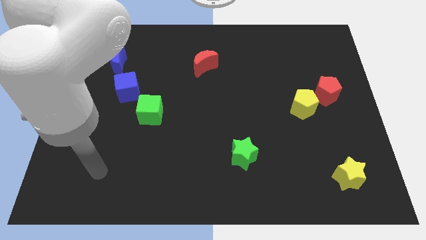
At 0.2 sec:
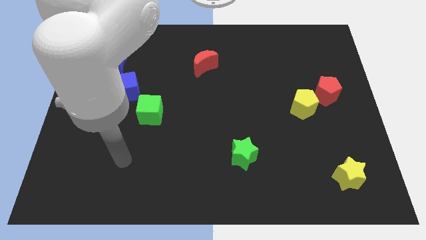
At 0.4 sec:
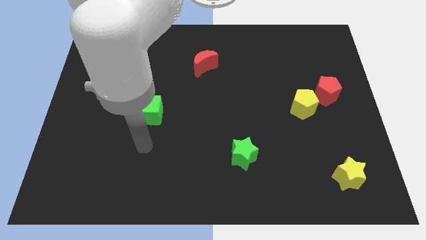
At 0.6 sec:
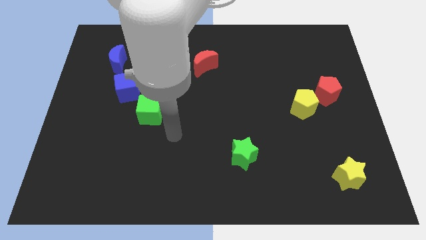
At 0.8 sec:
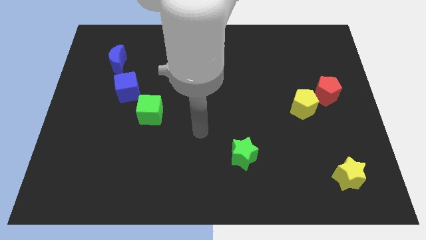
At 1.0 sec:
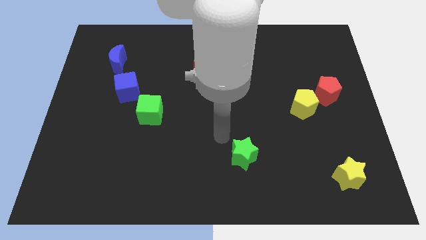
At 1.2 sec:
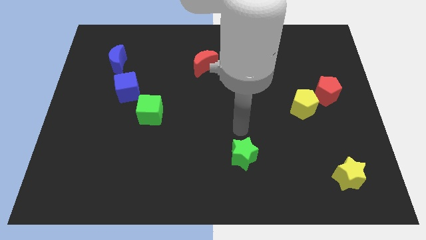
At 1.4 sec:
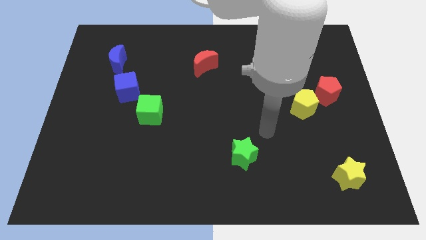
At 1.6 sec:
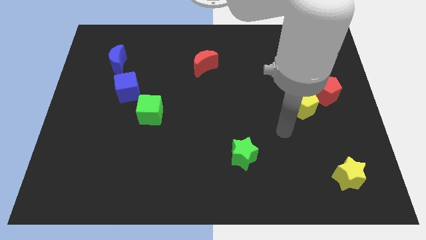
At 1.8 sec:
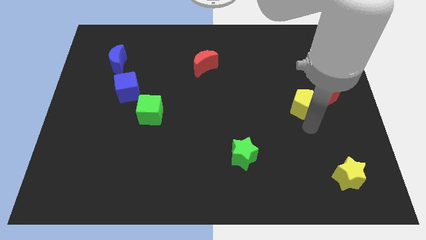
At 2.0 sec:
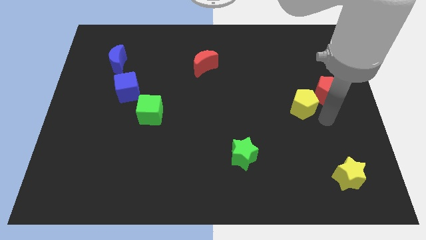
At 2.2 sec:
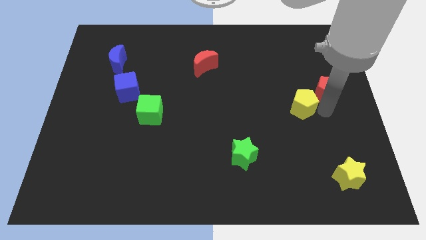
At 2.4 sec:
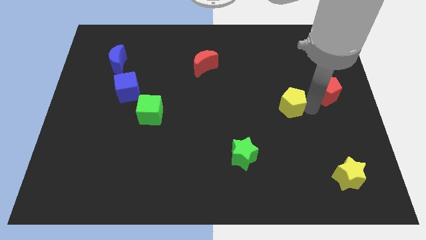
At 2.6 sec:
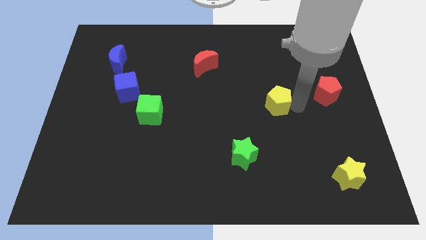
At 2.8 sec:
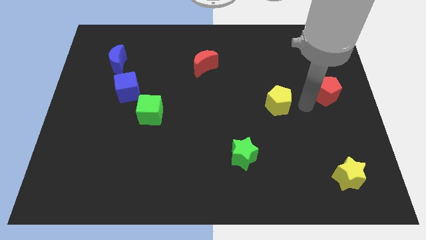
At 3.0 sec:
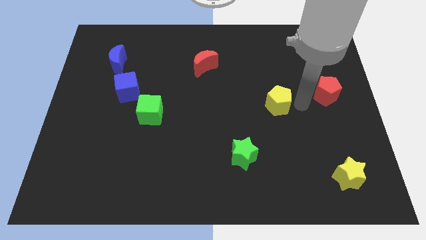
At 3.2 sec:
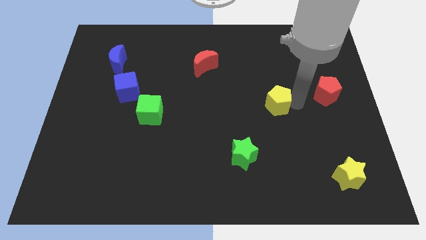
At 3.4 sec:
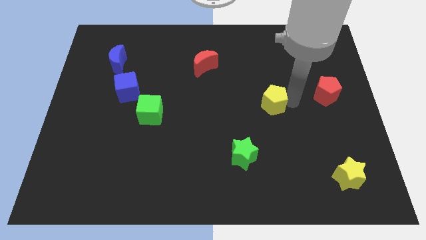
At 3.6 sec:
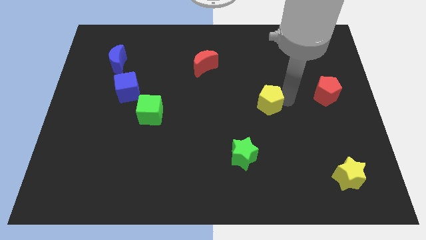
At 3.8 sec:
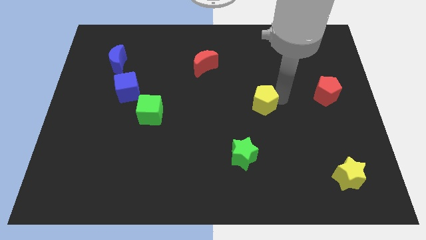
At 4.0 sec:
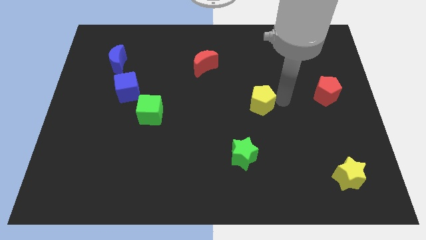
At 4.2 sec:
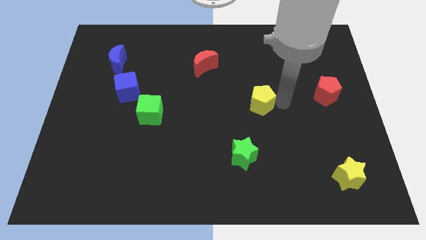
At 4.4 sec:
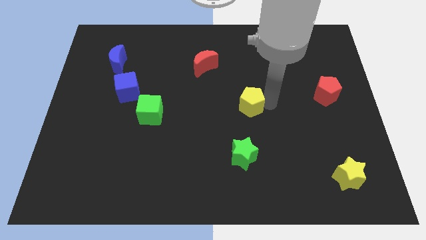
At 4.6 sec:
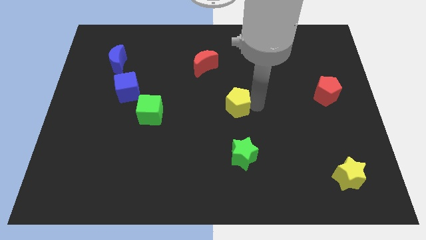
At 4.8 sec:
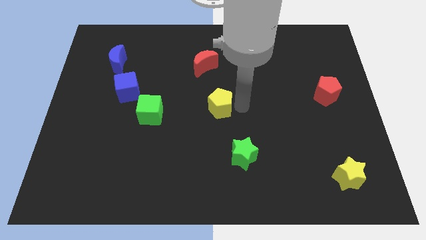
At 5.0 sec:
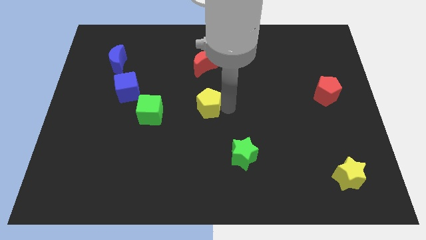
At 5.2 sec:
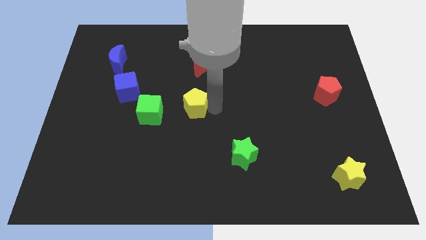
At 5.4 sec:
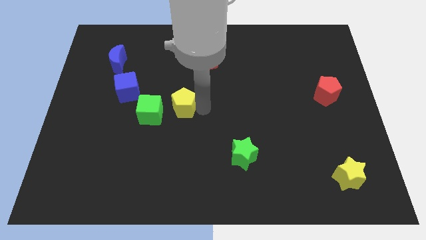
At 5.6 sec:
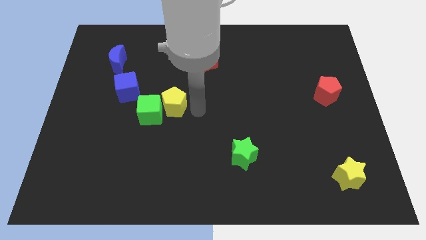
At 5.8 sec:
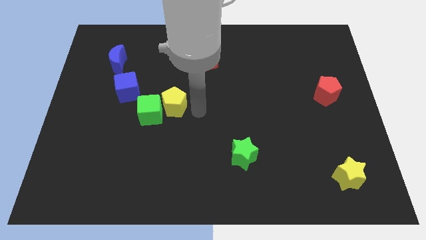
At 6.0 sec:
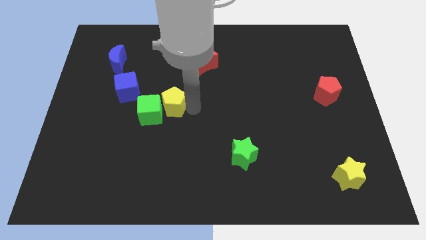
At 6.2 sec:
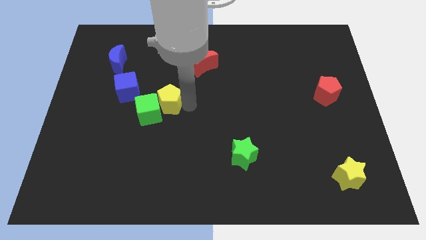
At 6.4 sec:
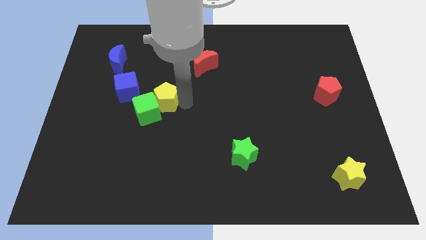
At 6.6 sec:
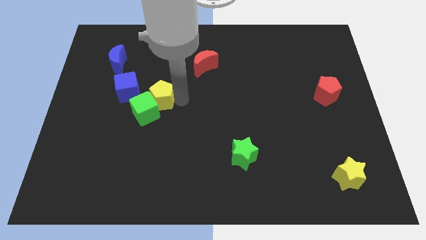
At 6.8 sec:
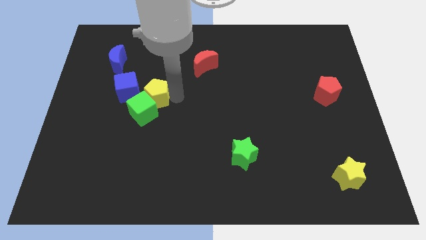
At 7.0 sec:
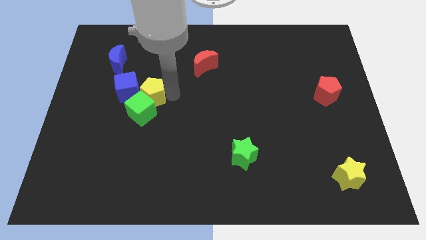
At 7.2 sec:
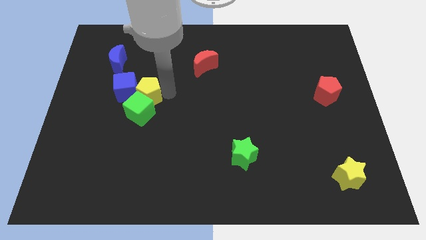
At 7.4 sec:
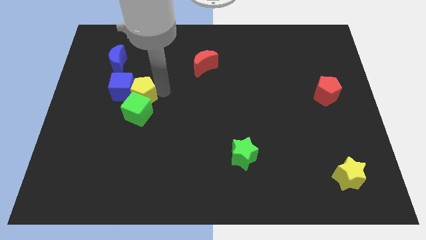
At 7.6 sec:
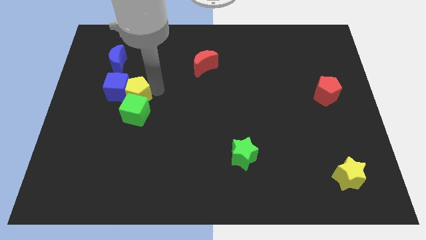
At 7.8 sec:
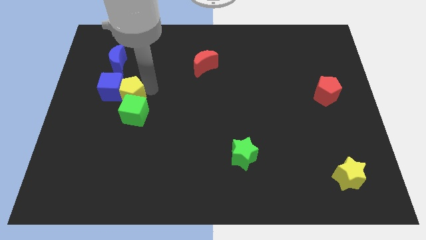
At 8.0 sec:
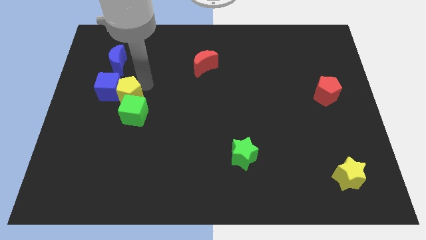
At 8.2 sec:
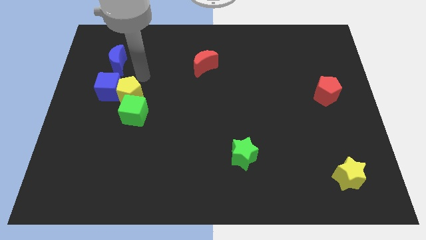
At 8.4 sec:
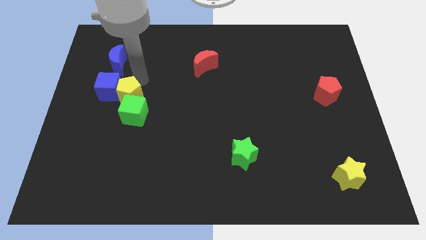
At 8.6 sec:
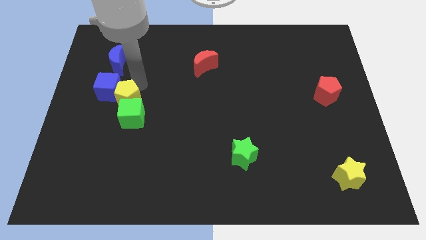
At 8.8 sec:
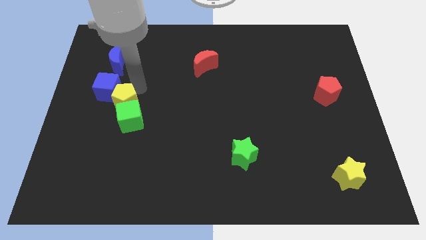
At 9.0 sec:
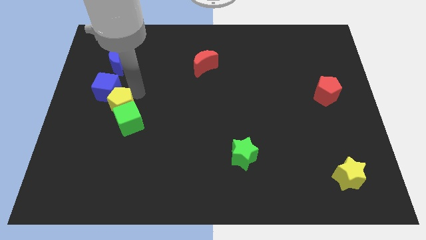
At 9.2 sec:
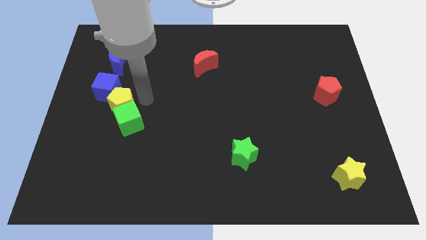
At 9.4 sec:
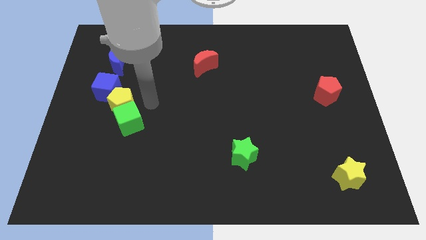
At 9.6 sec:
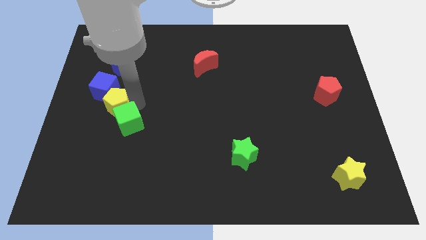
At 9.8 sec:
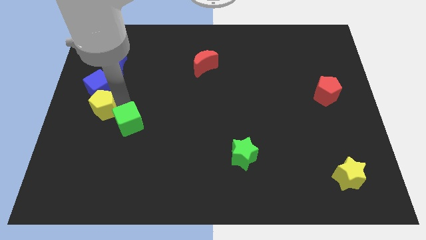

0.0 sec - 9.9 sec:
slide the yellow pentagon to the left side
